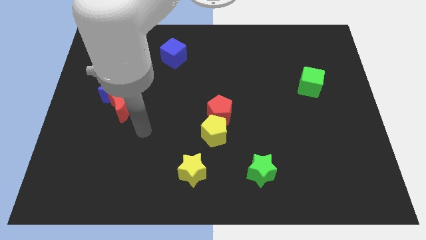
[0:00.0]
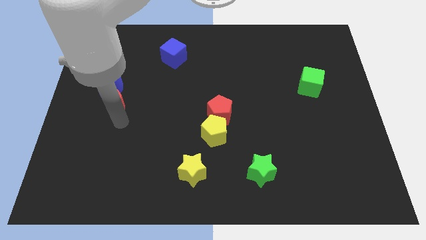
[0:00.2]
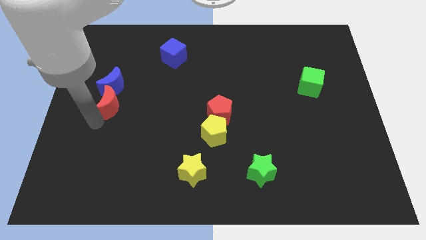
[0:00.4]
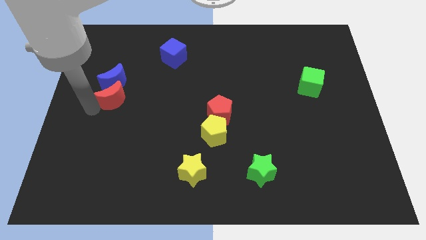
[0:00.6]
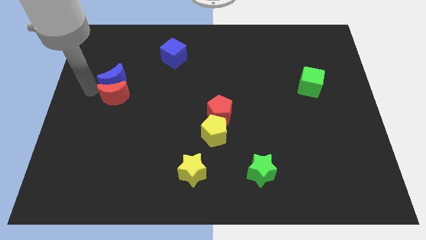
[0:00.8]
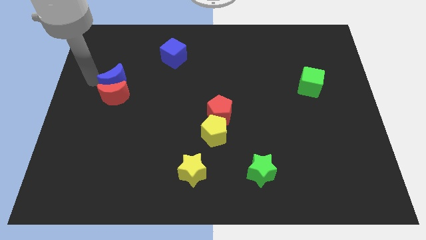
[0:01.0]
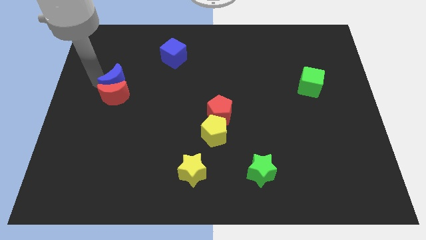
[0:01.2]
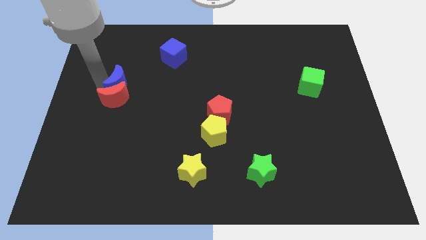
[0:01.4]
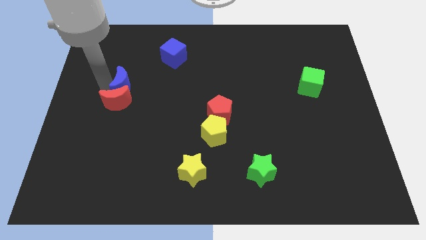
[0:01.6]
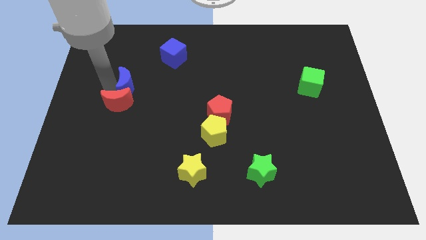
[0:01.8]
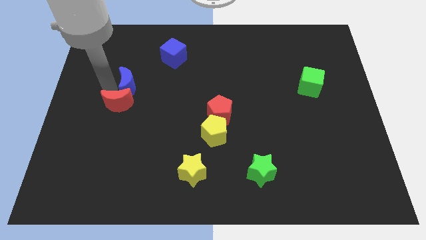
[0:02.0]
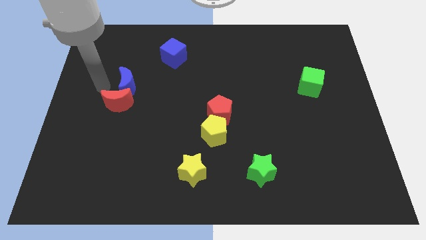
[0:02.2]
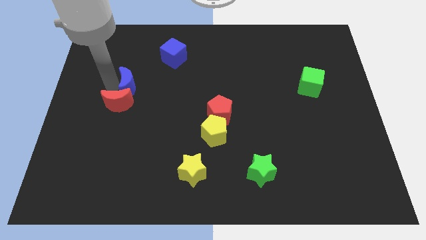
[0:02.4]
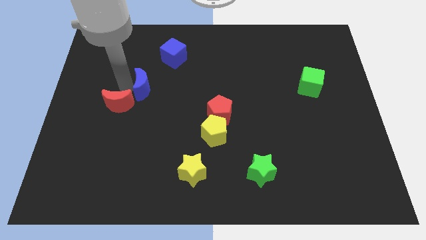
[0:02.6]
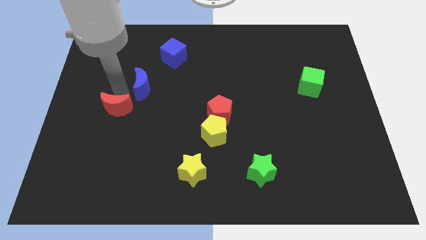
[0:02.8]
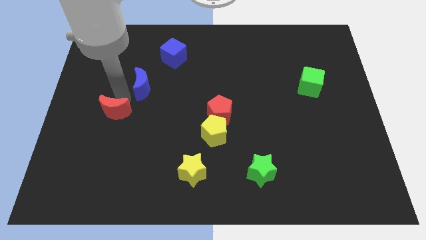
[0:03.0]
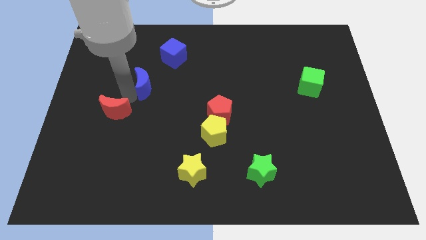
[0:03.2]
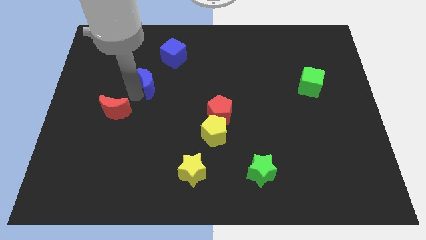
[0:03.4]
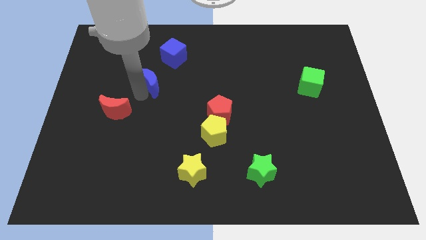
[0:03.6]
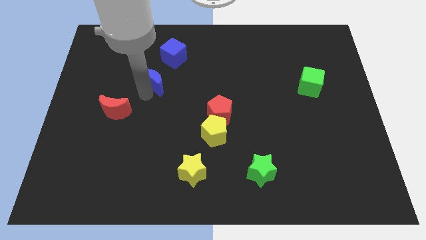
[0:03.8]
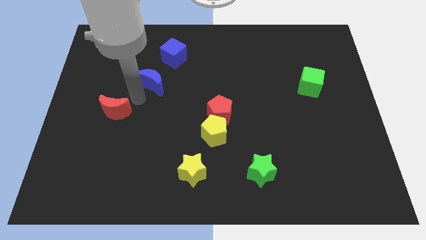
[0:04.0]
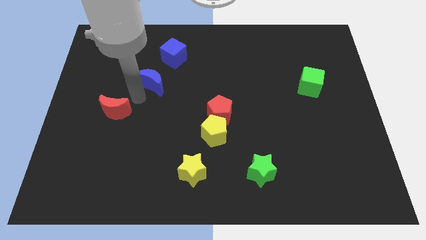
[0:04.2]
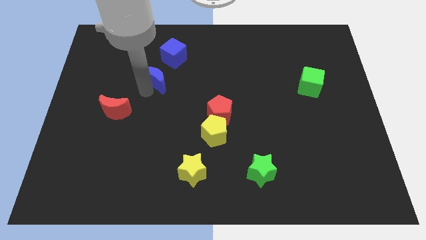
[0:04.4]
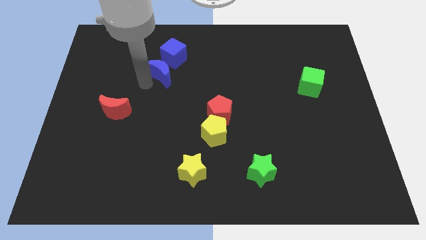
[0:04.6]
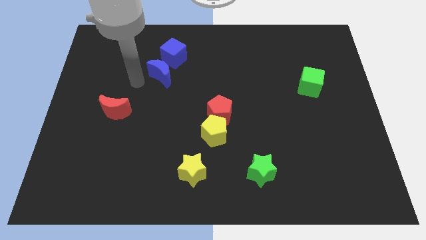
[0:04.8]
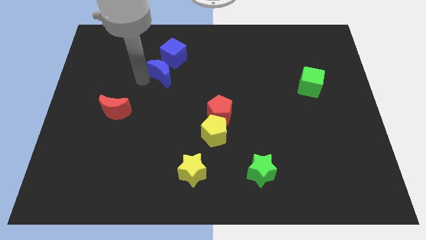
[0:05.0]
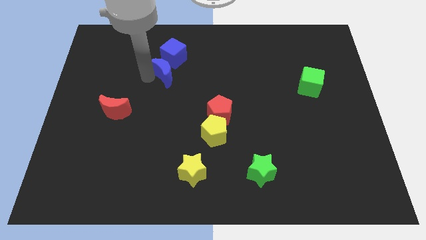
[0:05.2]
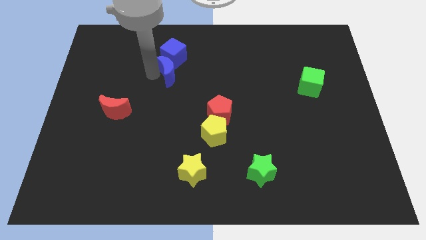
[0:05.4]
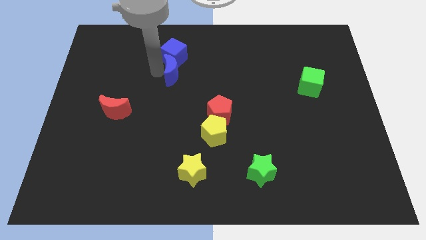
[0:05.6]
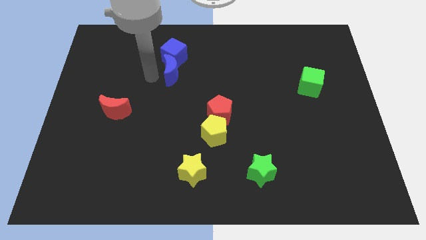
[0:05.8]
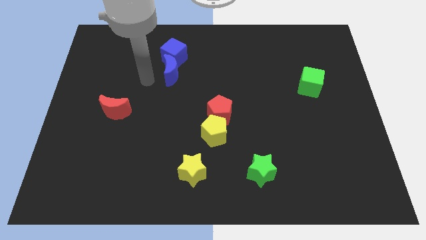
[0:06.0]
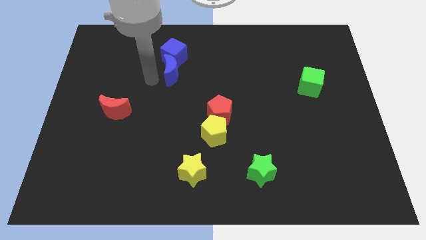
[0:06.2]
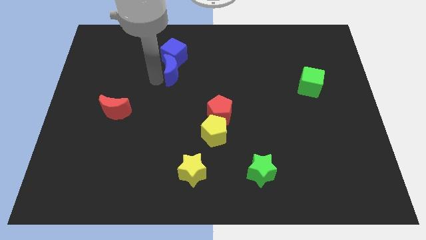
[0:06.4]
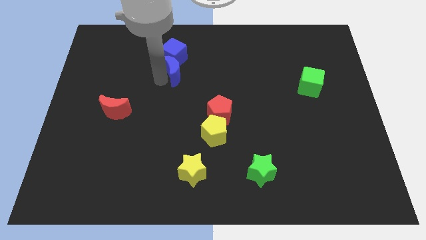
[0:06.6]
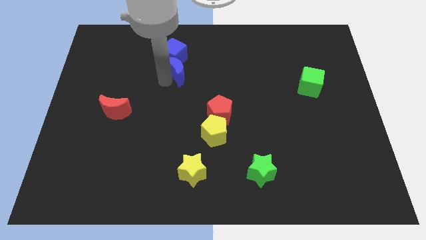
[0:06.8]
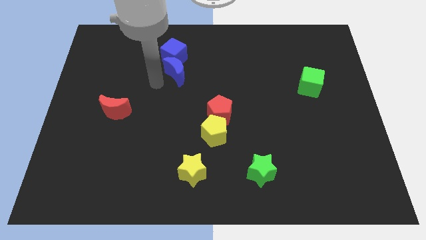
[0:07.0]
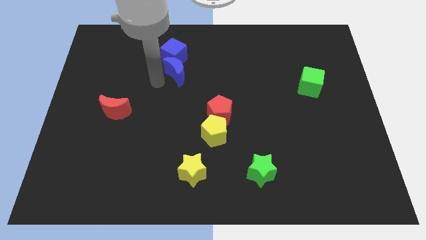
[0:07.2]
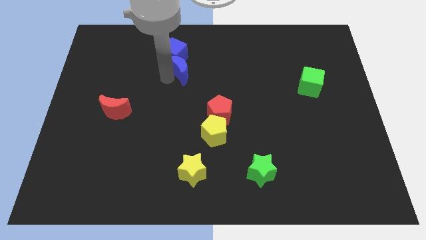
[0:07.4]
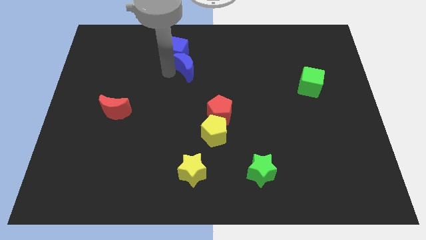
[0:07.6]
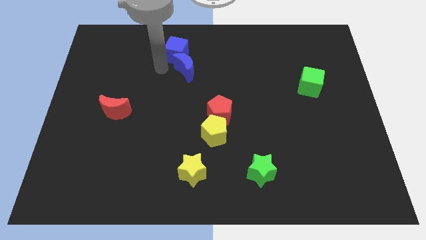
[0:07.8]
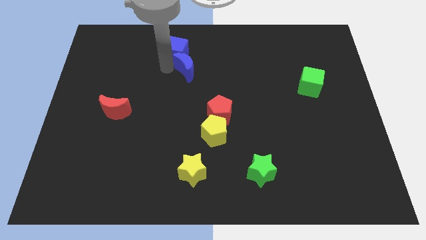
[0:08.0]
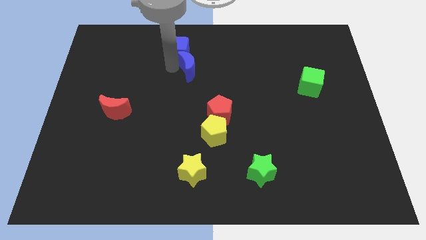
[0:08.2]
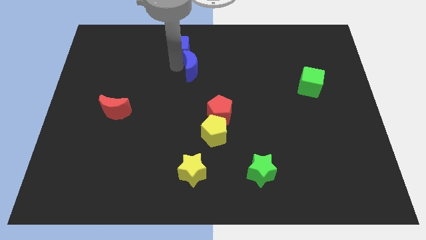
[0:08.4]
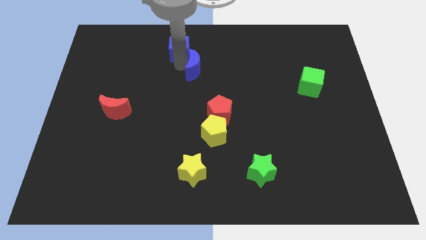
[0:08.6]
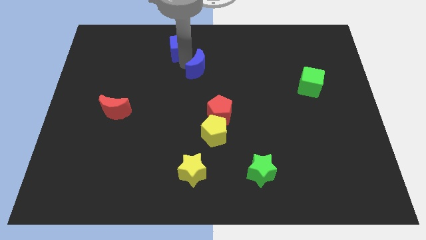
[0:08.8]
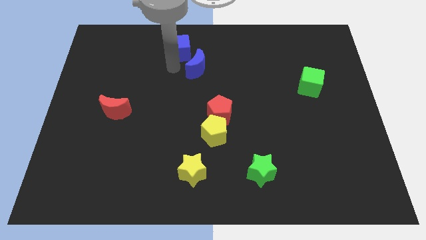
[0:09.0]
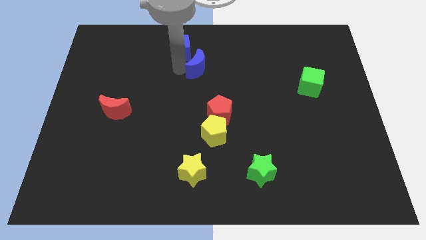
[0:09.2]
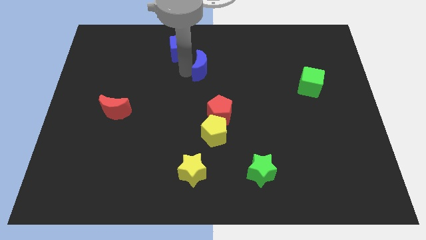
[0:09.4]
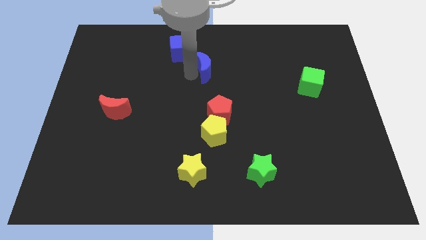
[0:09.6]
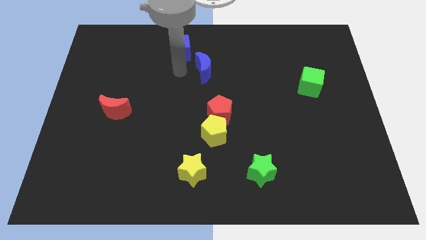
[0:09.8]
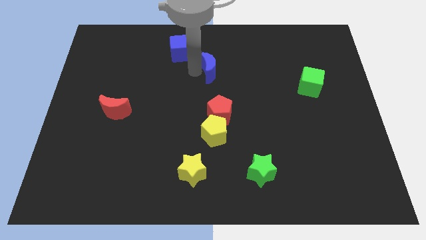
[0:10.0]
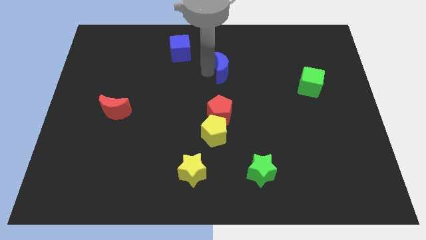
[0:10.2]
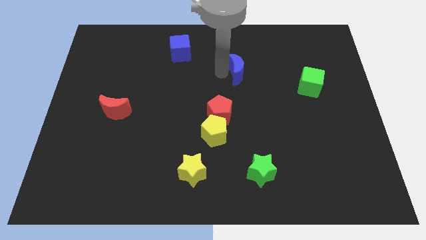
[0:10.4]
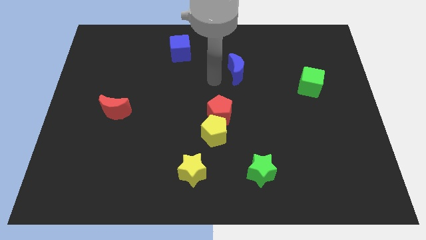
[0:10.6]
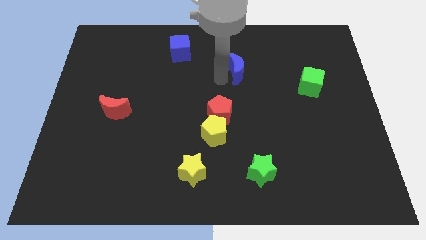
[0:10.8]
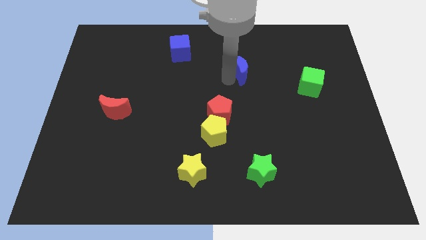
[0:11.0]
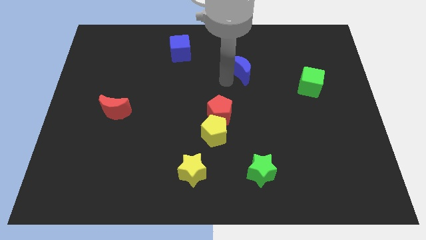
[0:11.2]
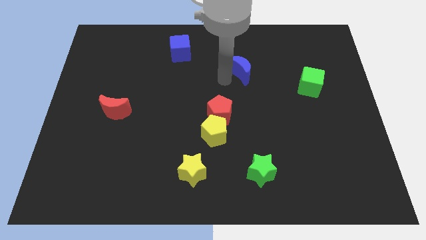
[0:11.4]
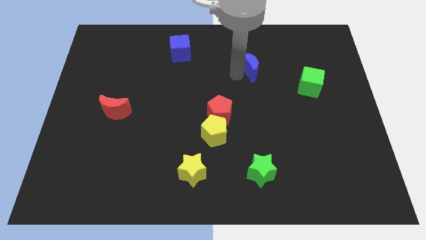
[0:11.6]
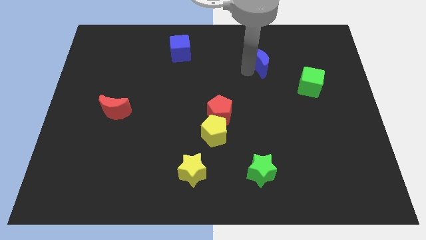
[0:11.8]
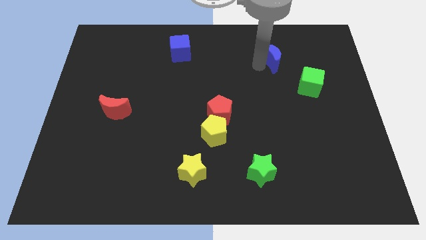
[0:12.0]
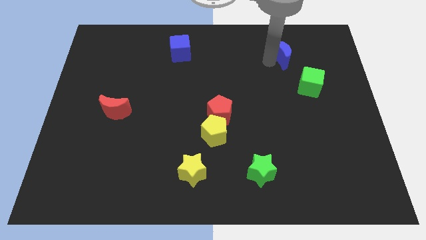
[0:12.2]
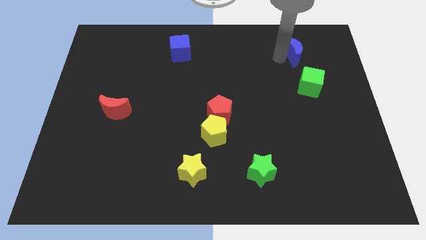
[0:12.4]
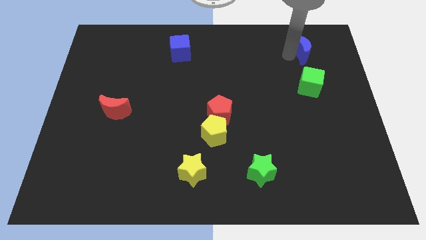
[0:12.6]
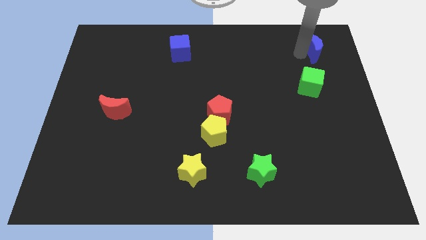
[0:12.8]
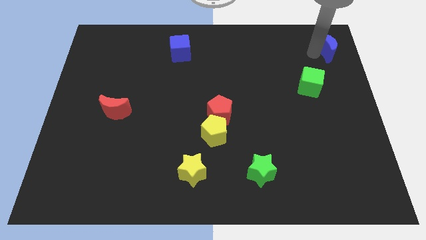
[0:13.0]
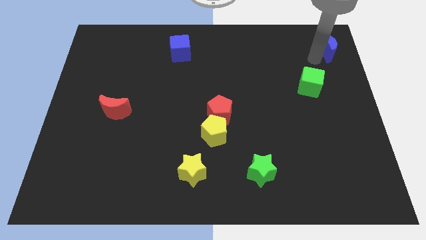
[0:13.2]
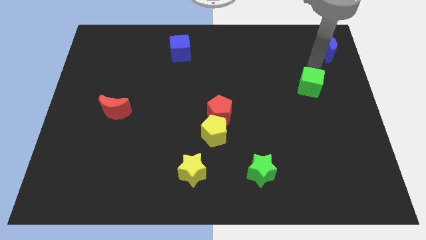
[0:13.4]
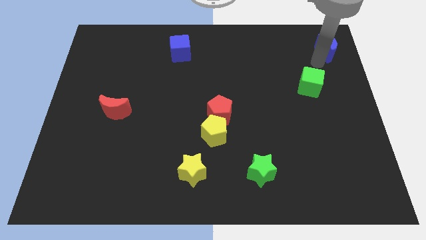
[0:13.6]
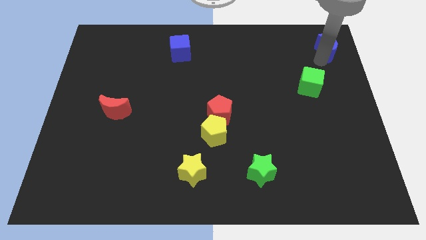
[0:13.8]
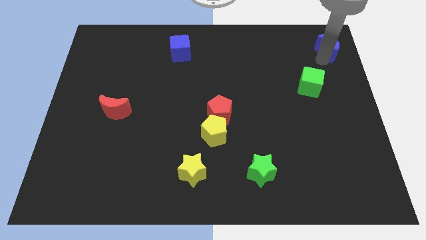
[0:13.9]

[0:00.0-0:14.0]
push the blue moon to the top right of the board
